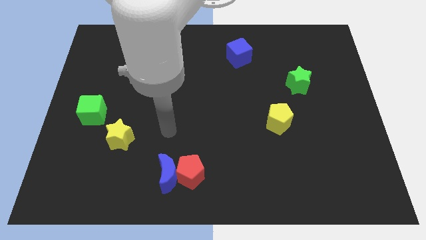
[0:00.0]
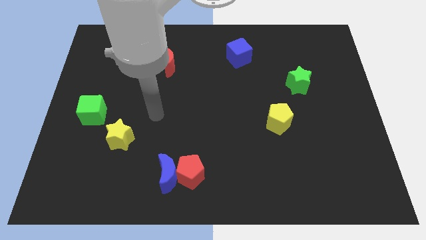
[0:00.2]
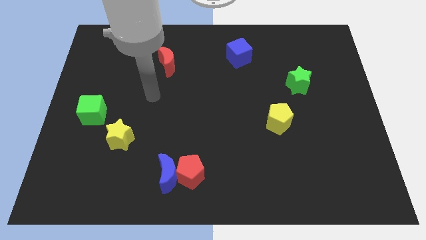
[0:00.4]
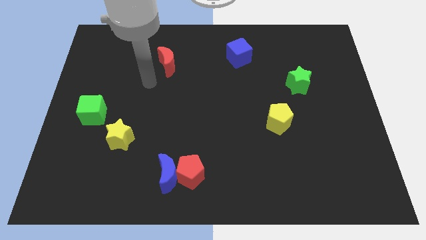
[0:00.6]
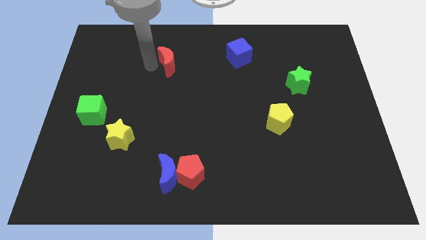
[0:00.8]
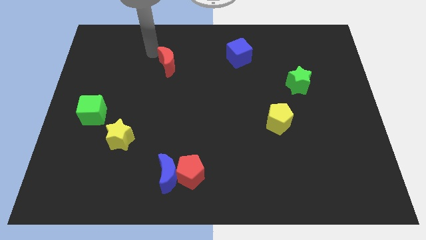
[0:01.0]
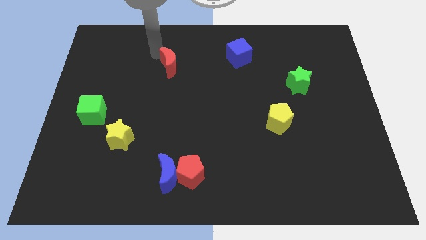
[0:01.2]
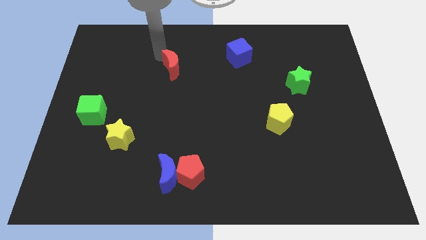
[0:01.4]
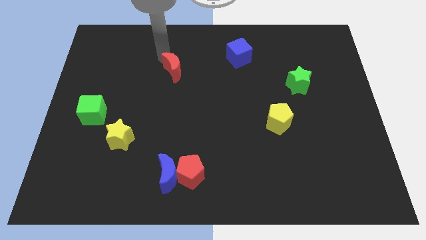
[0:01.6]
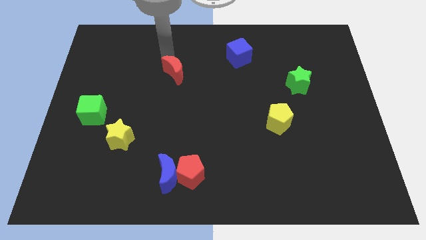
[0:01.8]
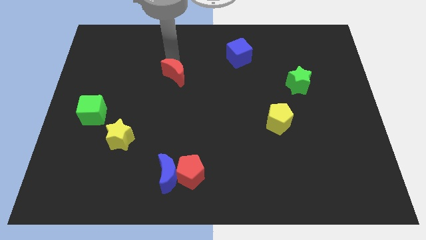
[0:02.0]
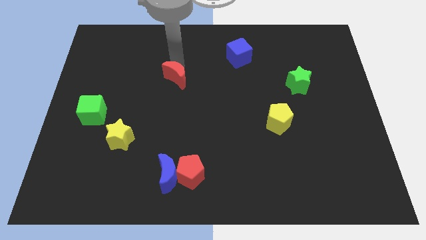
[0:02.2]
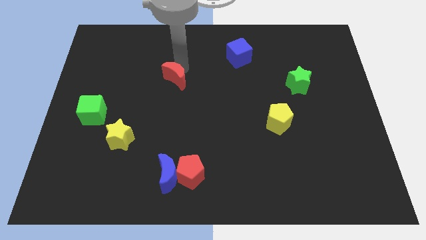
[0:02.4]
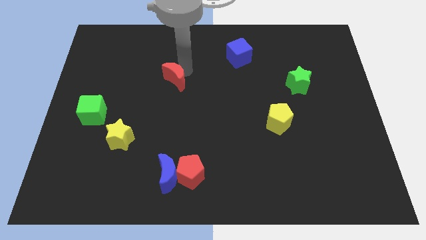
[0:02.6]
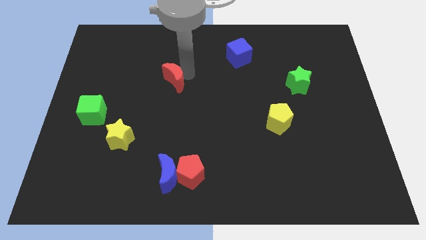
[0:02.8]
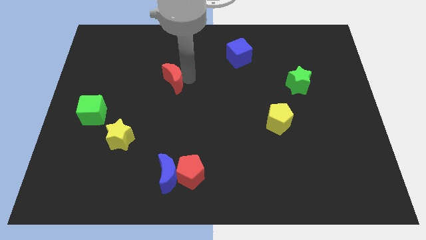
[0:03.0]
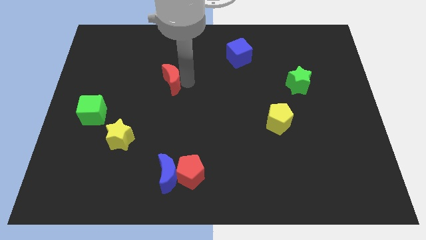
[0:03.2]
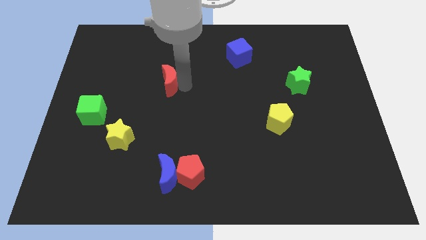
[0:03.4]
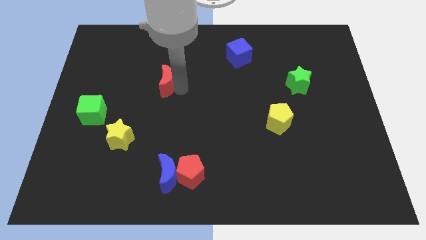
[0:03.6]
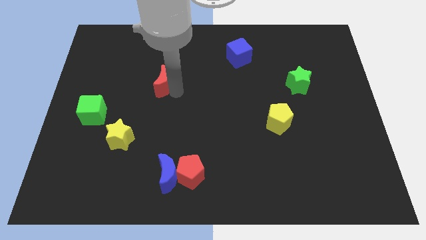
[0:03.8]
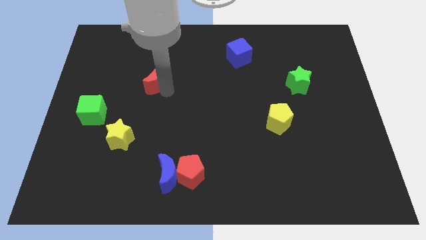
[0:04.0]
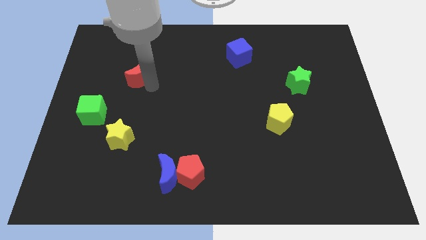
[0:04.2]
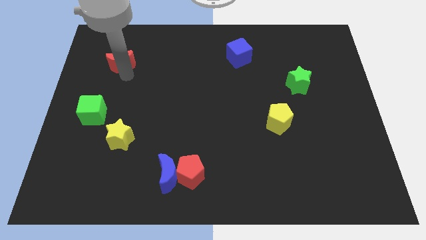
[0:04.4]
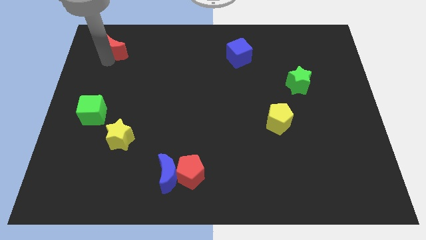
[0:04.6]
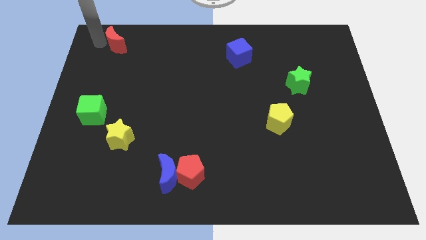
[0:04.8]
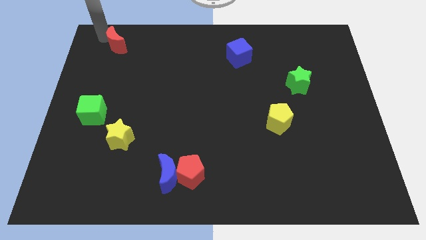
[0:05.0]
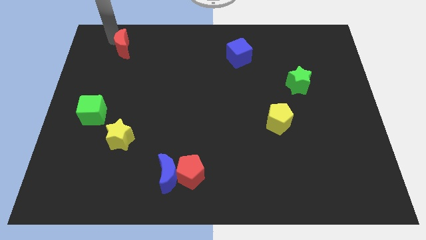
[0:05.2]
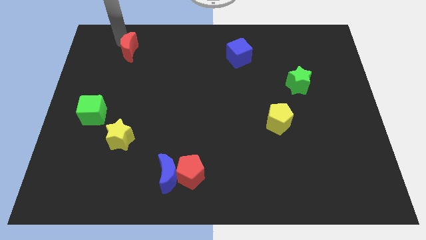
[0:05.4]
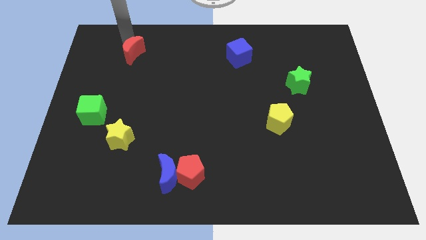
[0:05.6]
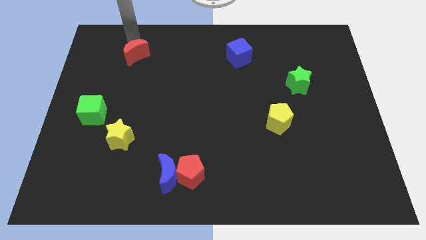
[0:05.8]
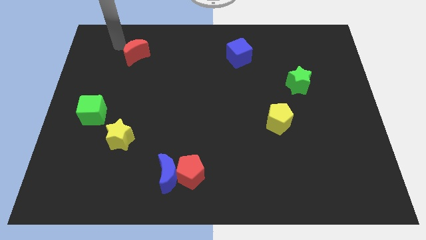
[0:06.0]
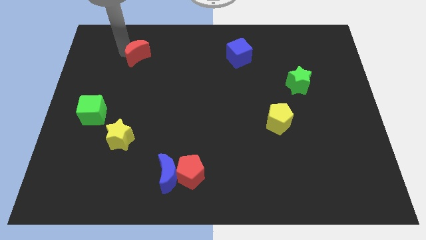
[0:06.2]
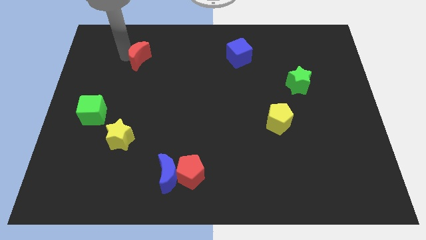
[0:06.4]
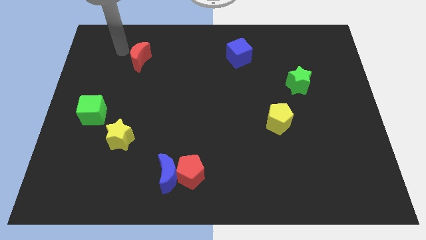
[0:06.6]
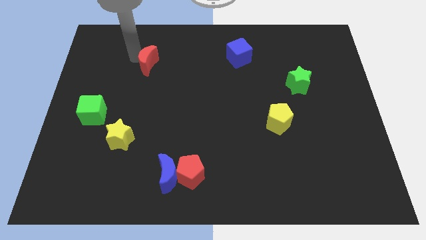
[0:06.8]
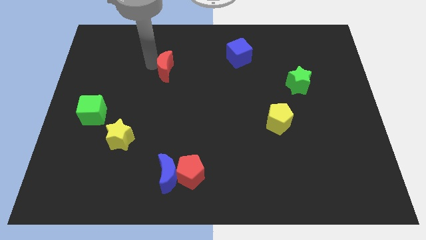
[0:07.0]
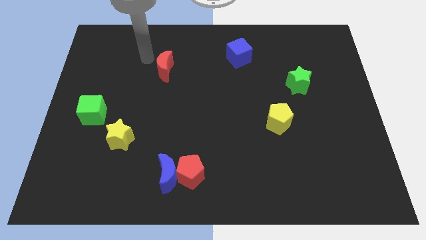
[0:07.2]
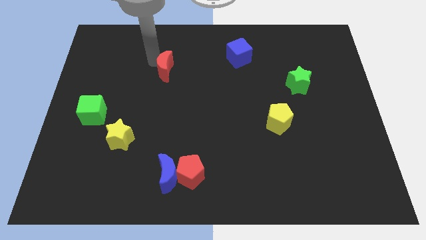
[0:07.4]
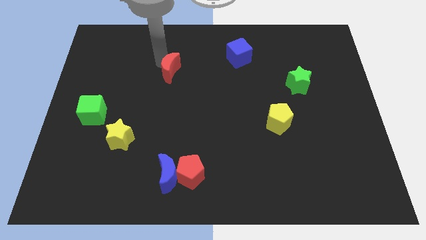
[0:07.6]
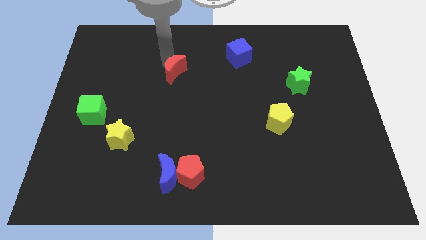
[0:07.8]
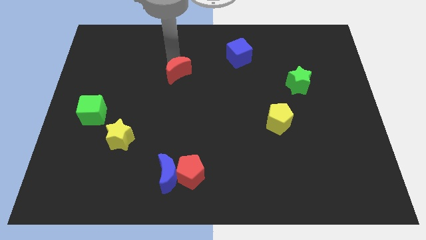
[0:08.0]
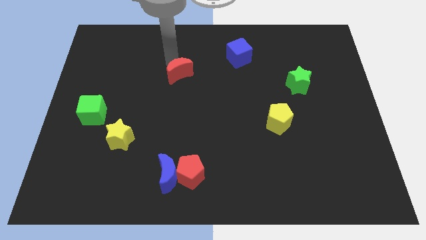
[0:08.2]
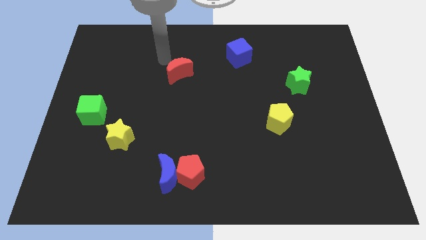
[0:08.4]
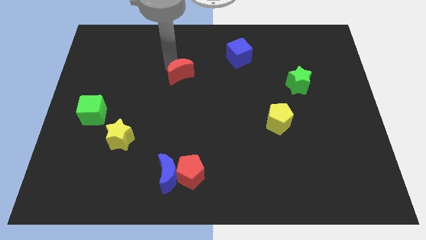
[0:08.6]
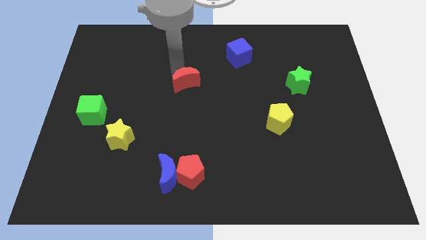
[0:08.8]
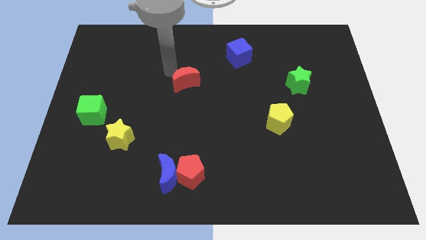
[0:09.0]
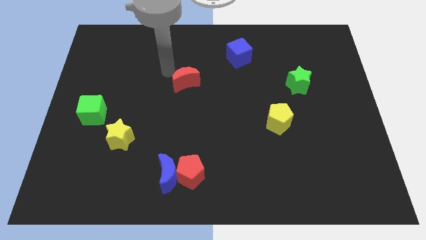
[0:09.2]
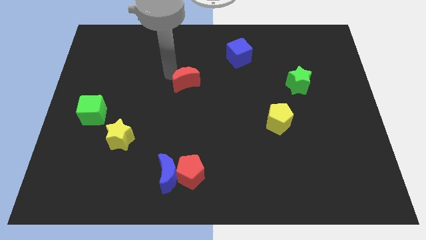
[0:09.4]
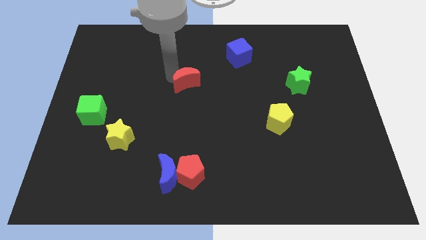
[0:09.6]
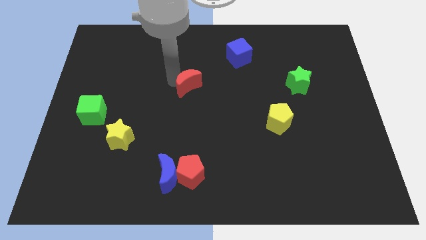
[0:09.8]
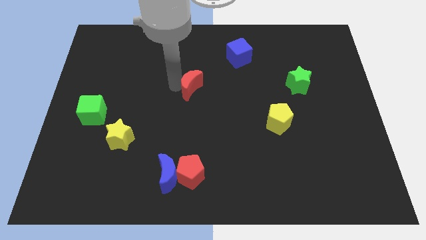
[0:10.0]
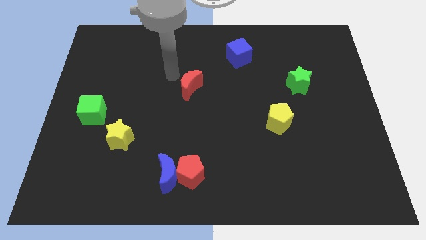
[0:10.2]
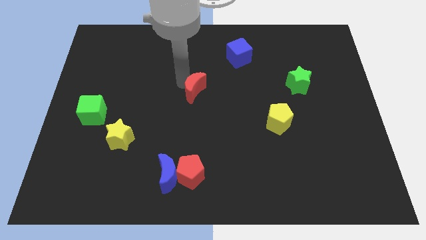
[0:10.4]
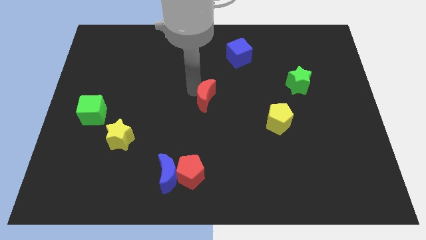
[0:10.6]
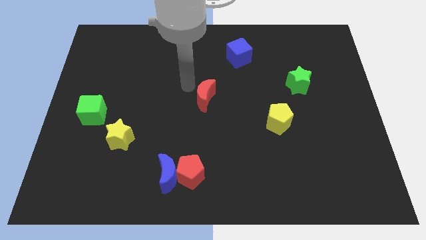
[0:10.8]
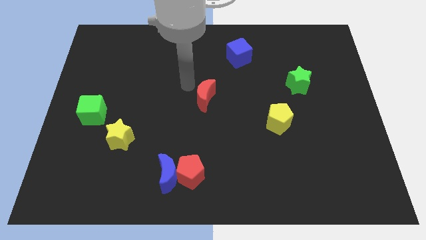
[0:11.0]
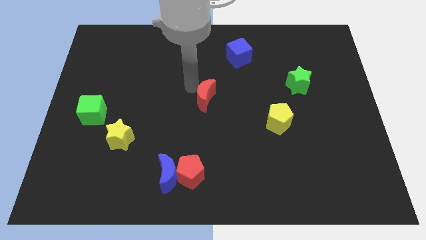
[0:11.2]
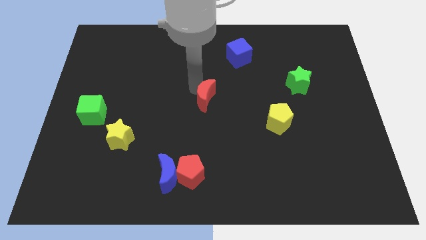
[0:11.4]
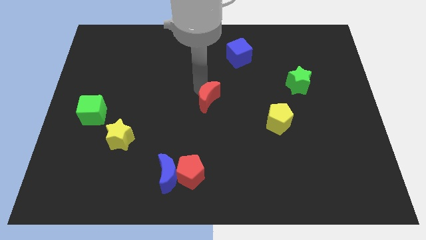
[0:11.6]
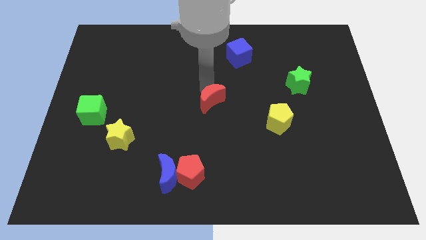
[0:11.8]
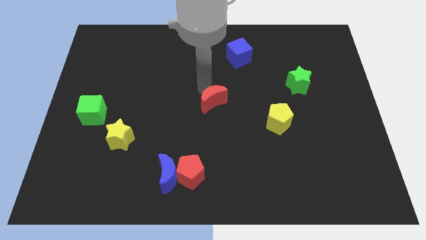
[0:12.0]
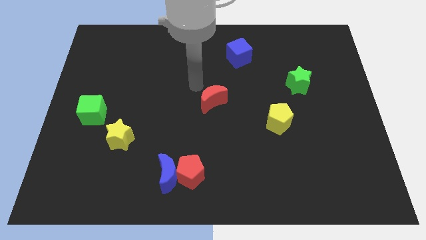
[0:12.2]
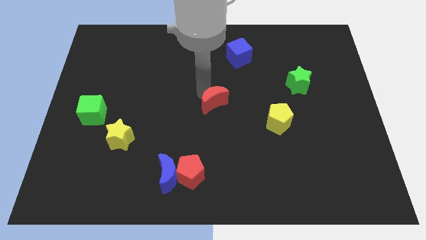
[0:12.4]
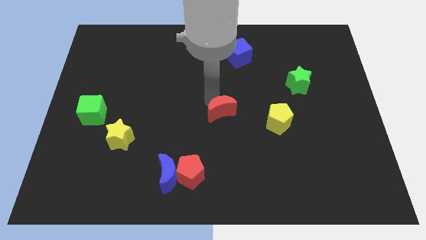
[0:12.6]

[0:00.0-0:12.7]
slide the red moon down and right

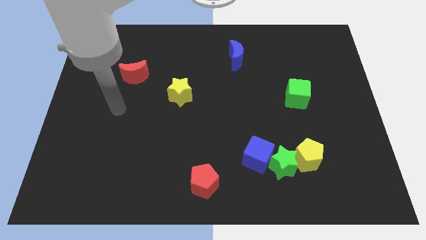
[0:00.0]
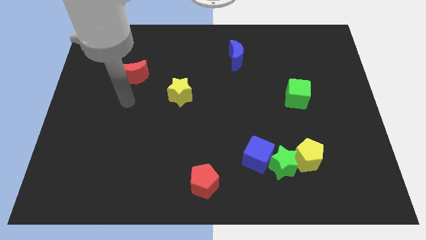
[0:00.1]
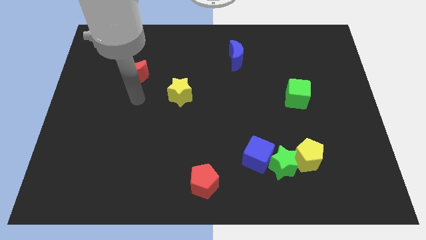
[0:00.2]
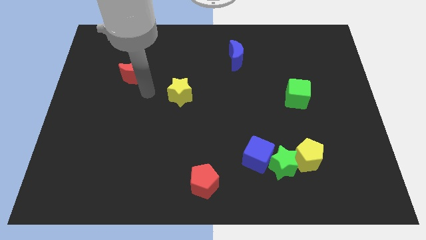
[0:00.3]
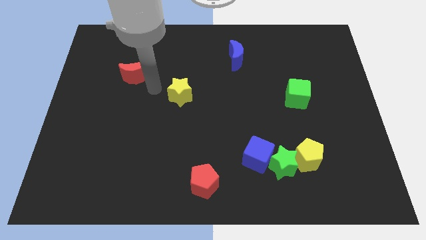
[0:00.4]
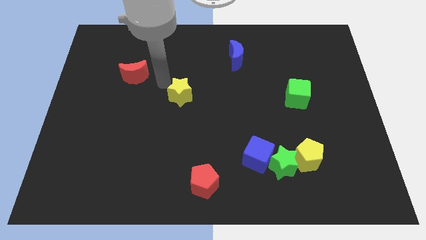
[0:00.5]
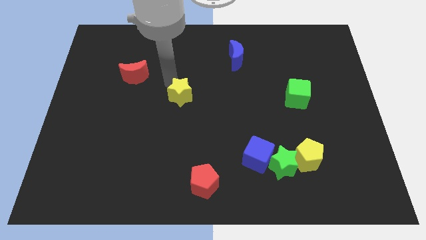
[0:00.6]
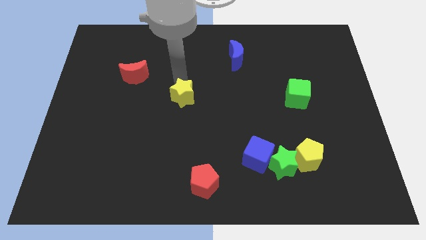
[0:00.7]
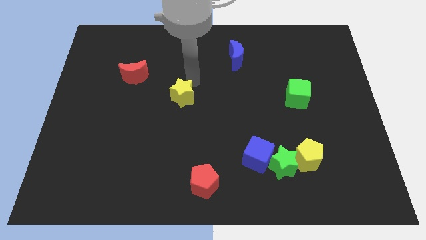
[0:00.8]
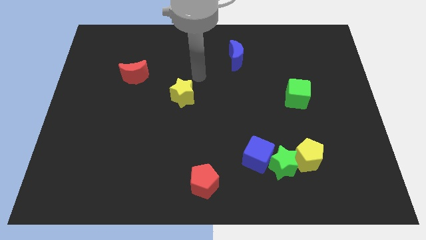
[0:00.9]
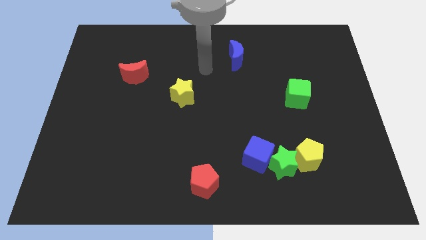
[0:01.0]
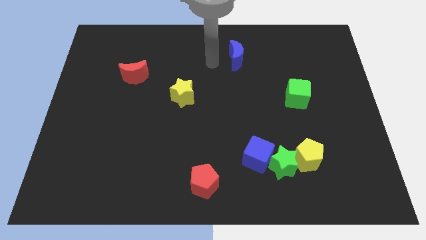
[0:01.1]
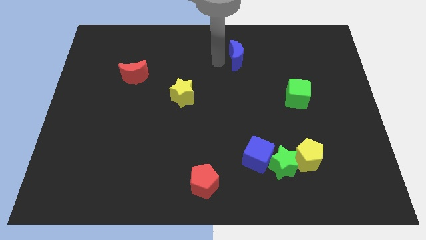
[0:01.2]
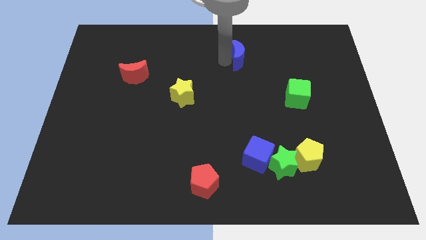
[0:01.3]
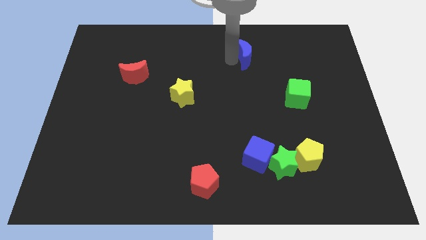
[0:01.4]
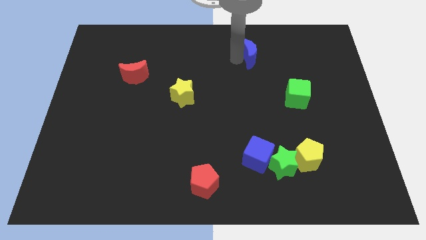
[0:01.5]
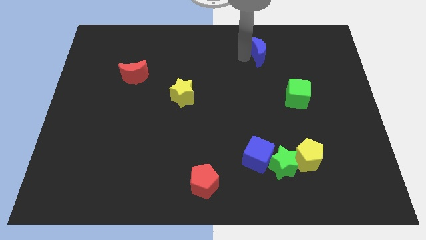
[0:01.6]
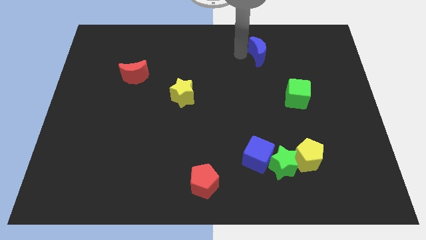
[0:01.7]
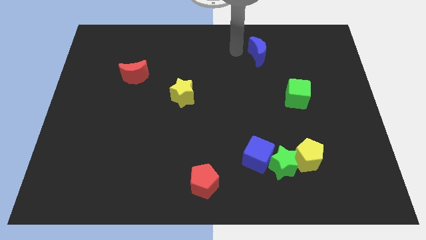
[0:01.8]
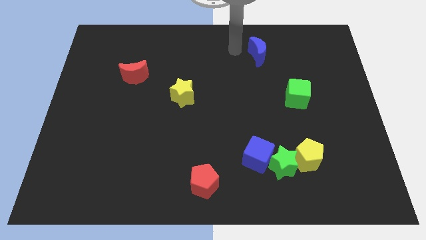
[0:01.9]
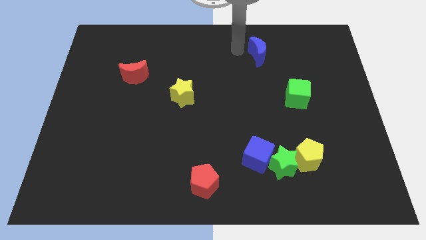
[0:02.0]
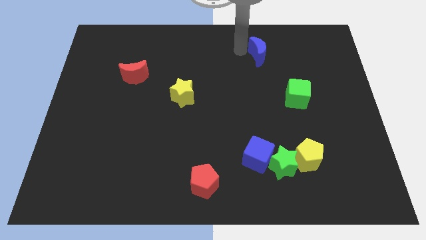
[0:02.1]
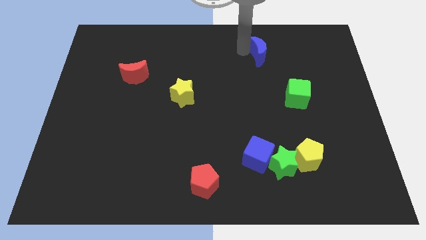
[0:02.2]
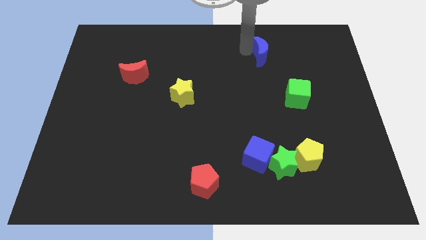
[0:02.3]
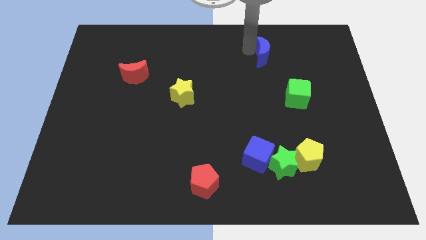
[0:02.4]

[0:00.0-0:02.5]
slightly push the blue moon right
